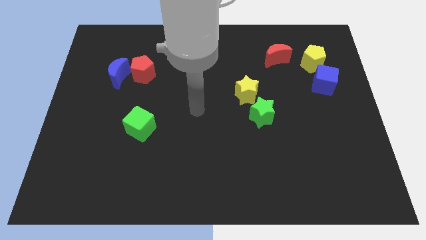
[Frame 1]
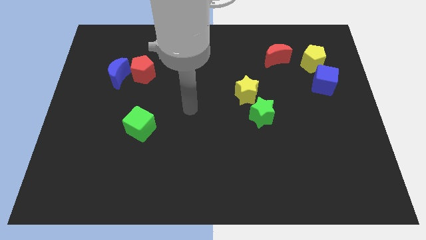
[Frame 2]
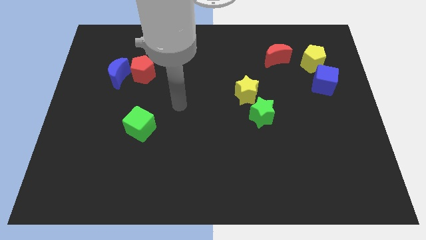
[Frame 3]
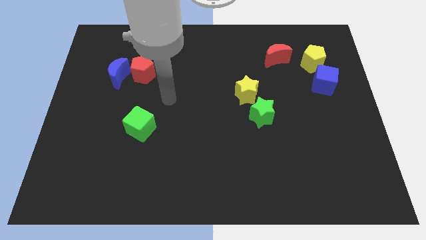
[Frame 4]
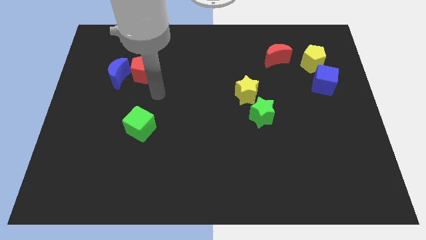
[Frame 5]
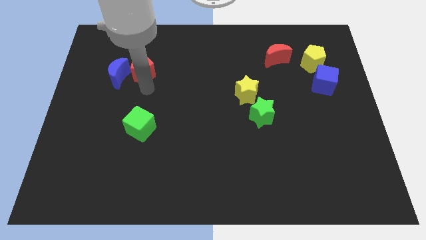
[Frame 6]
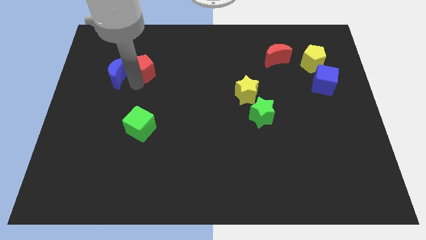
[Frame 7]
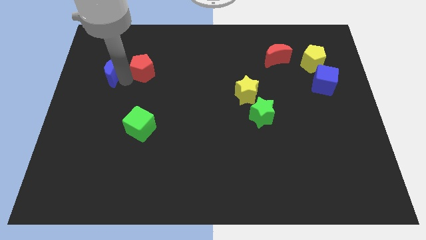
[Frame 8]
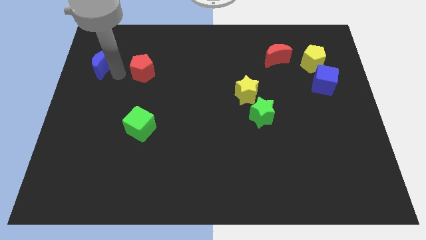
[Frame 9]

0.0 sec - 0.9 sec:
separate the red pentagon from the blue moon

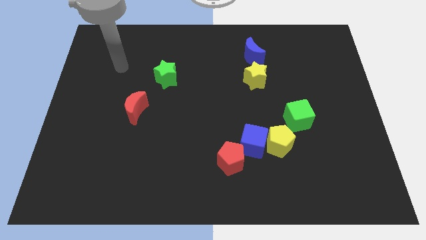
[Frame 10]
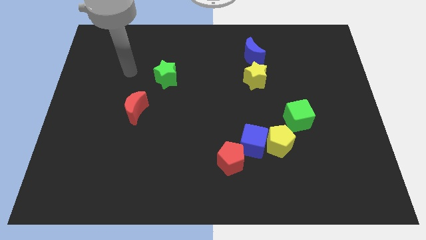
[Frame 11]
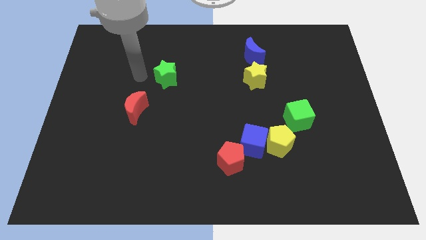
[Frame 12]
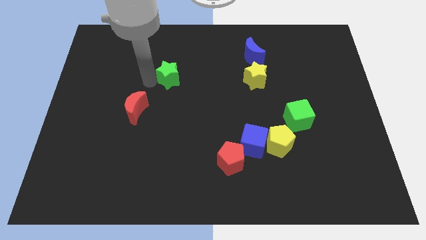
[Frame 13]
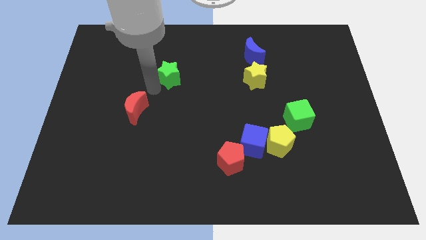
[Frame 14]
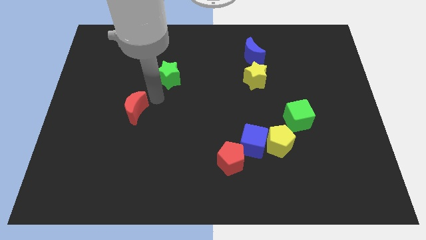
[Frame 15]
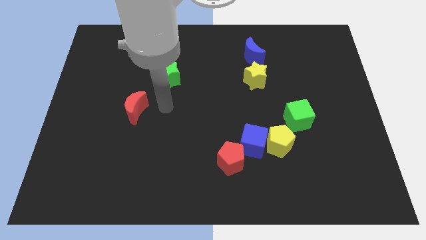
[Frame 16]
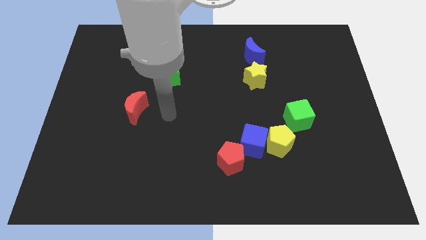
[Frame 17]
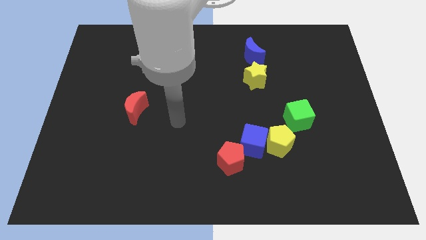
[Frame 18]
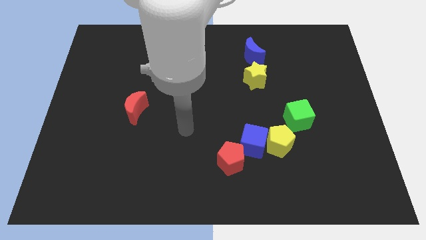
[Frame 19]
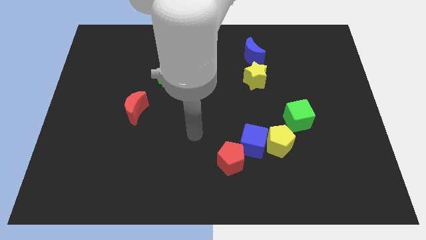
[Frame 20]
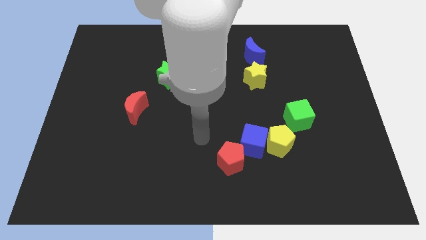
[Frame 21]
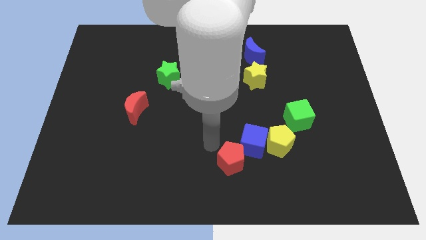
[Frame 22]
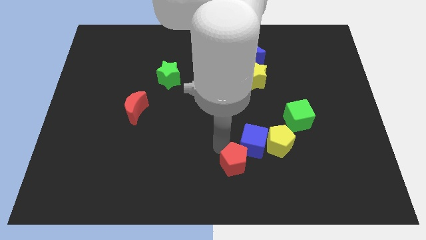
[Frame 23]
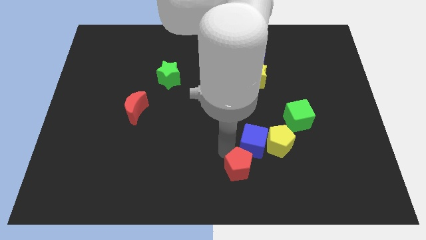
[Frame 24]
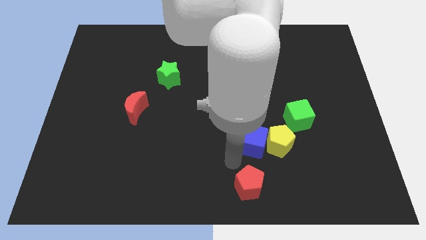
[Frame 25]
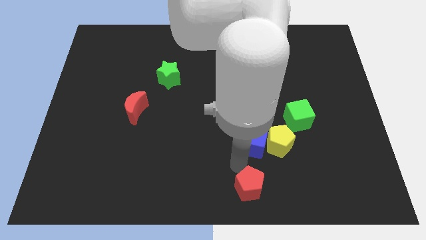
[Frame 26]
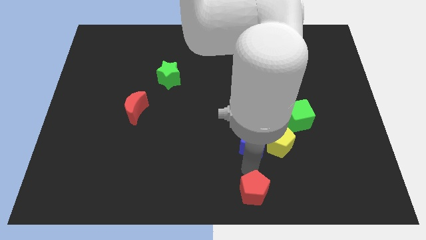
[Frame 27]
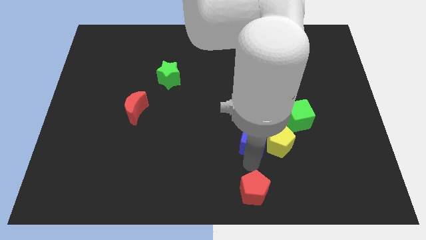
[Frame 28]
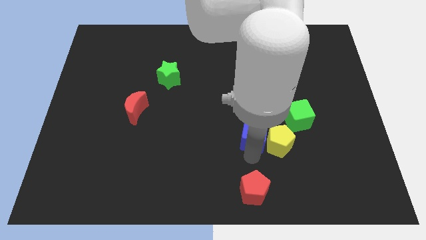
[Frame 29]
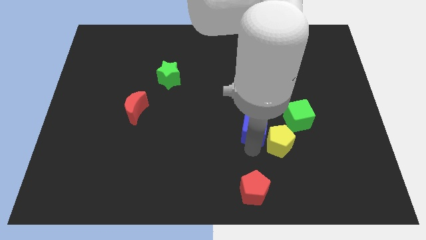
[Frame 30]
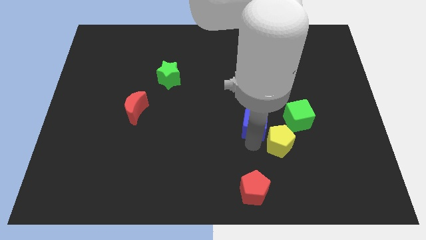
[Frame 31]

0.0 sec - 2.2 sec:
move the blue cube away from the yellow pentagon and red pentagon

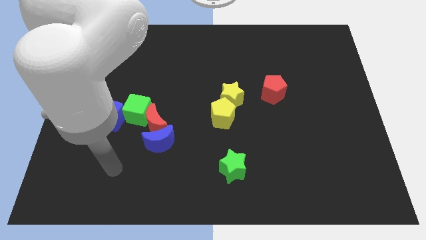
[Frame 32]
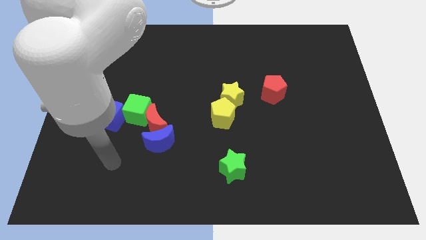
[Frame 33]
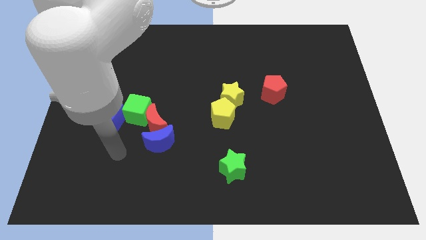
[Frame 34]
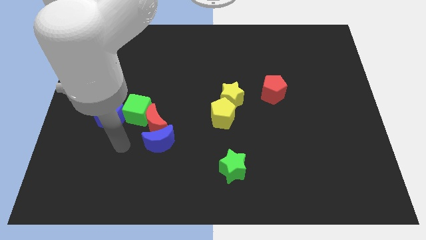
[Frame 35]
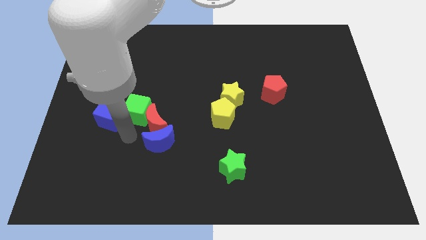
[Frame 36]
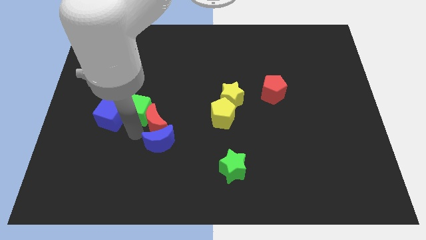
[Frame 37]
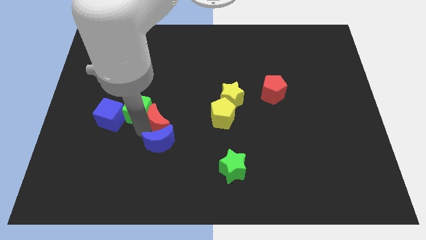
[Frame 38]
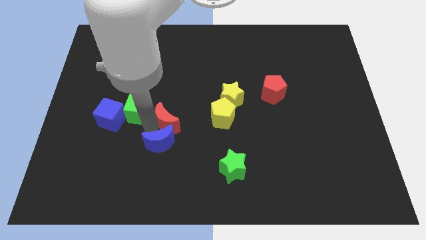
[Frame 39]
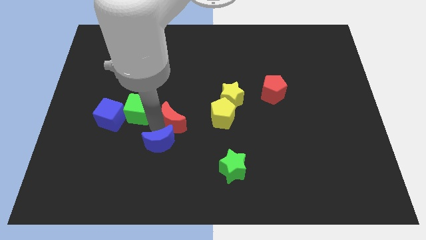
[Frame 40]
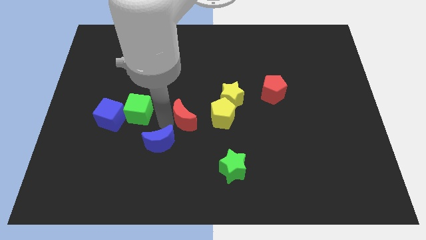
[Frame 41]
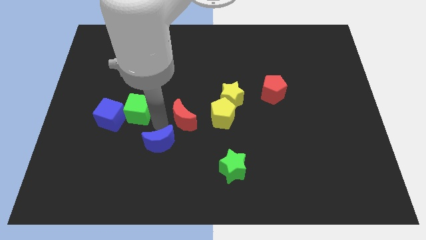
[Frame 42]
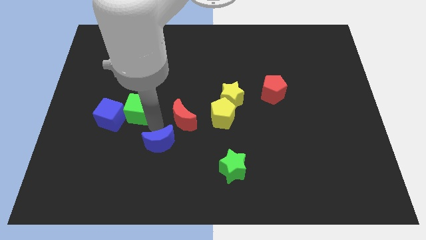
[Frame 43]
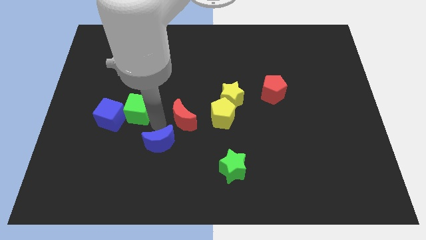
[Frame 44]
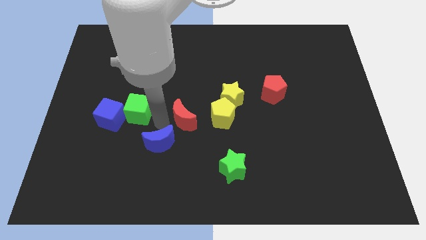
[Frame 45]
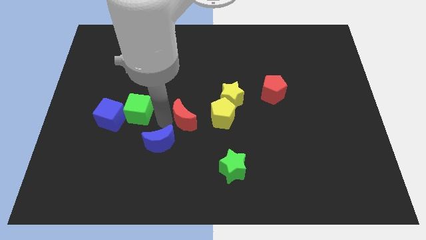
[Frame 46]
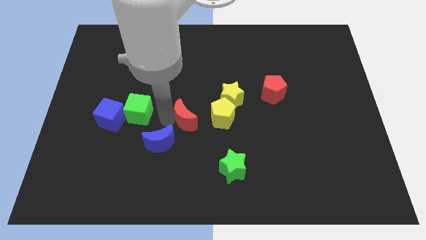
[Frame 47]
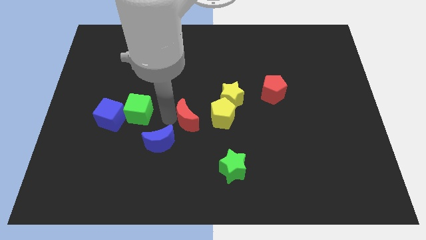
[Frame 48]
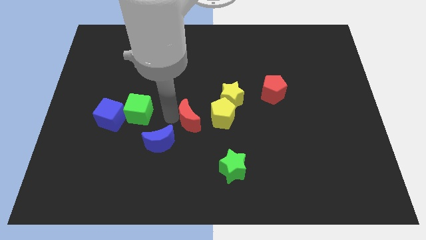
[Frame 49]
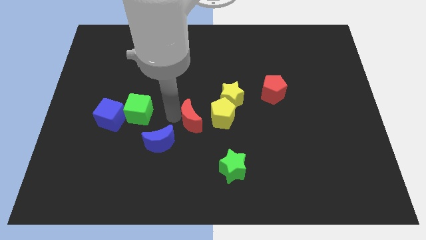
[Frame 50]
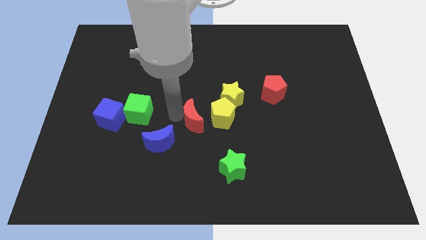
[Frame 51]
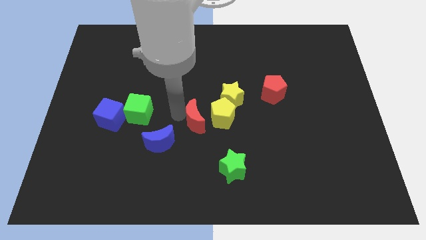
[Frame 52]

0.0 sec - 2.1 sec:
move the red moon away from the blue moon and green cube

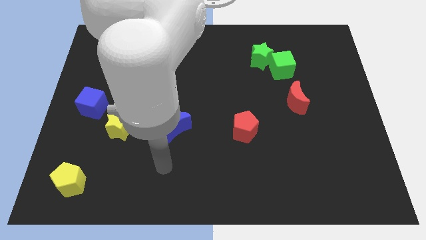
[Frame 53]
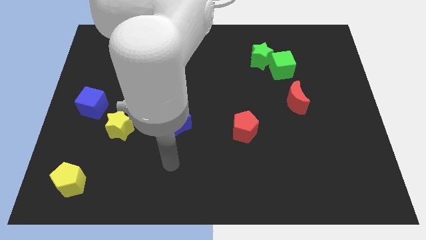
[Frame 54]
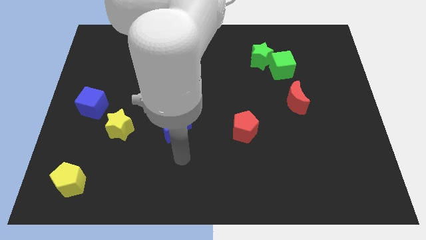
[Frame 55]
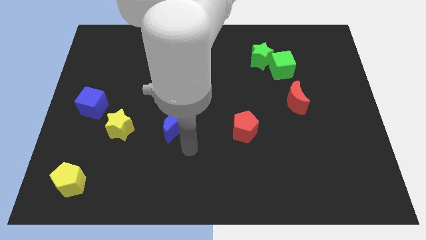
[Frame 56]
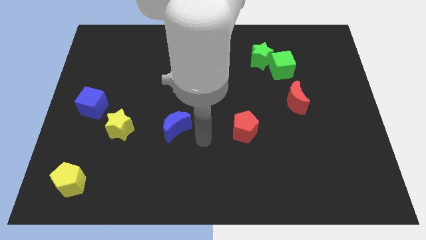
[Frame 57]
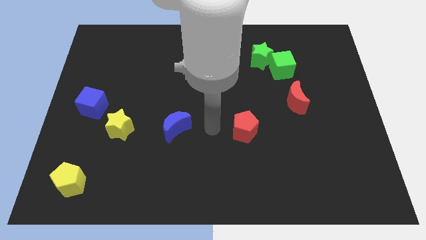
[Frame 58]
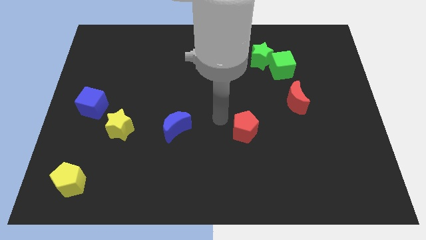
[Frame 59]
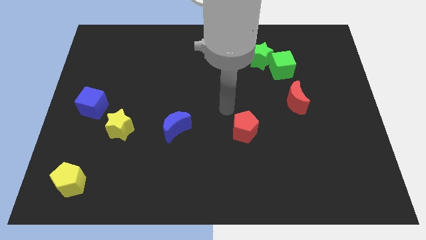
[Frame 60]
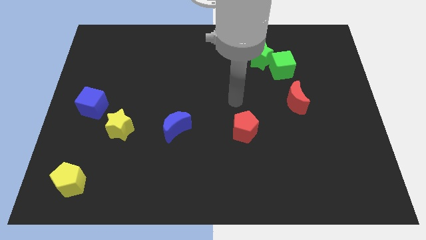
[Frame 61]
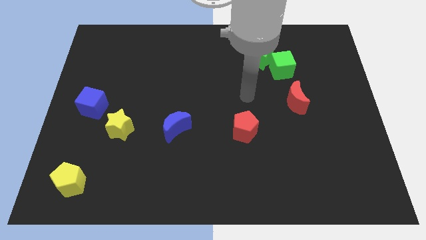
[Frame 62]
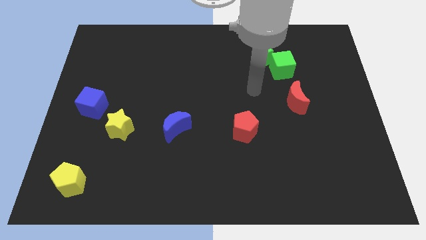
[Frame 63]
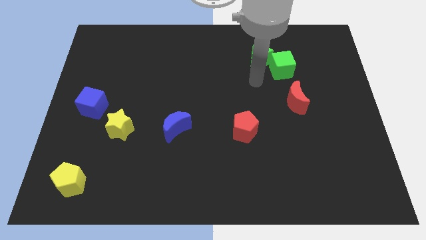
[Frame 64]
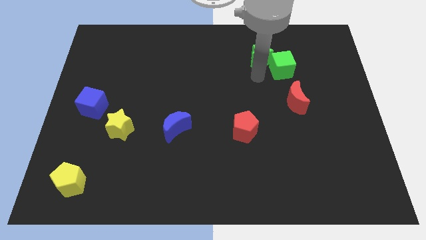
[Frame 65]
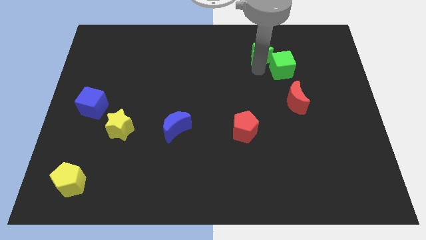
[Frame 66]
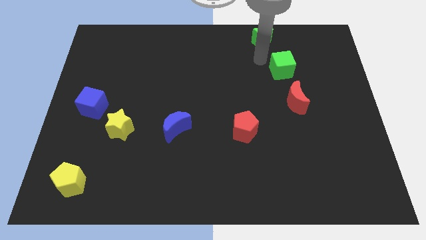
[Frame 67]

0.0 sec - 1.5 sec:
move the green cube away from the green star

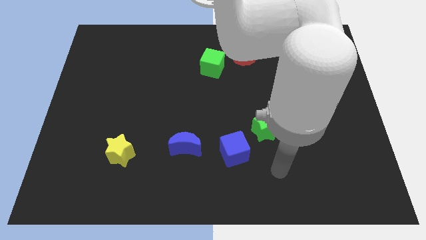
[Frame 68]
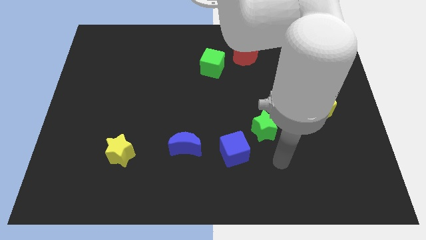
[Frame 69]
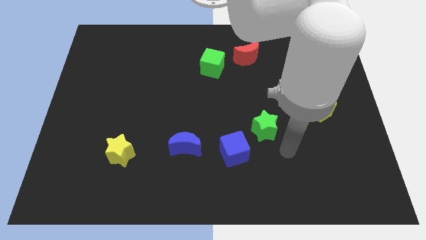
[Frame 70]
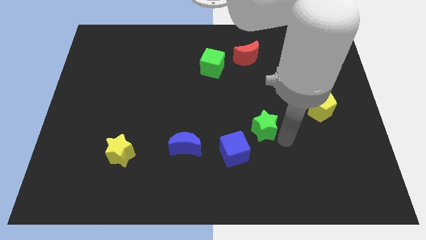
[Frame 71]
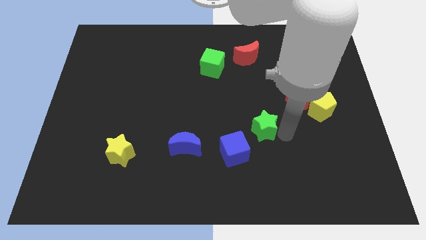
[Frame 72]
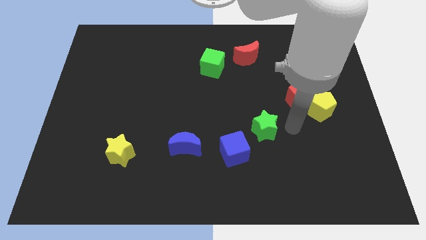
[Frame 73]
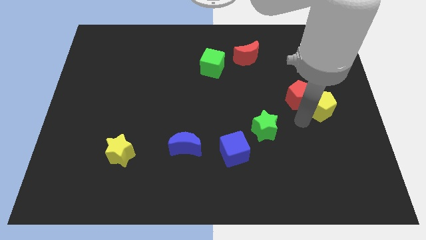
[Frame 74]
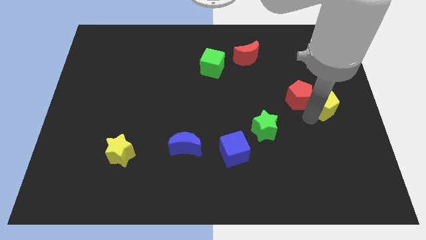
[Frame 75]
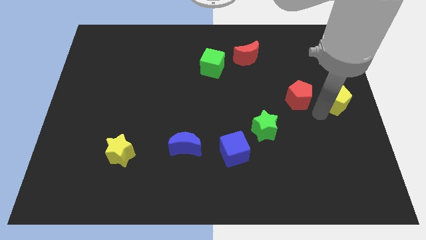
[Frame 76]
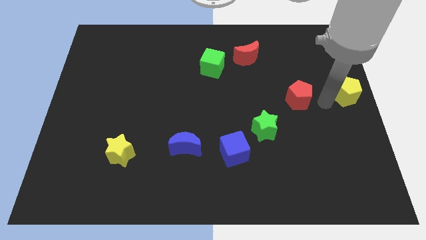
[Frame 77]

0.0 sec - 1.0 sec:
pull the red pentagon apart from the yellow pentagon

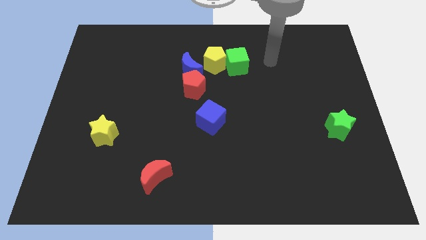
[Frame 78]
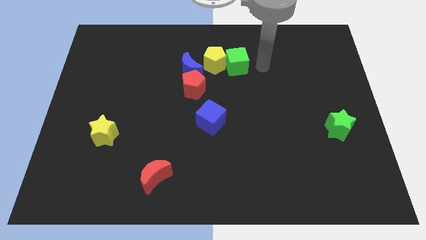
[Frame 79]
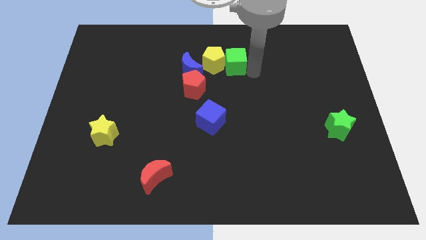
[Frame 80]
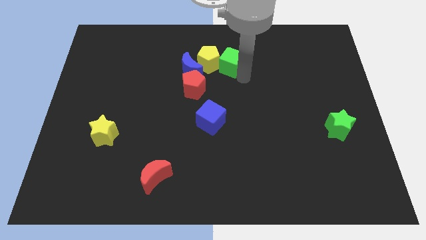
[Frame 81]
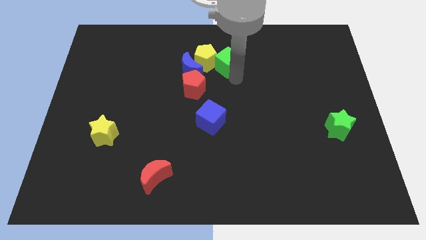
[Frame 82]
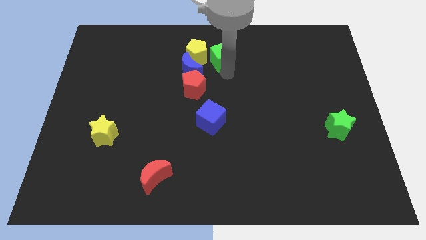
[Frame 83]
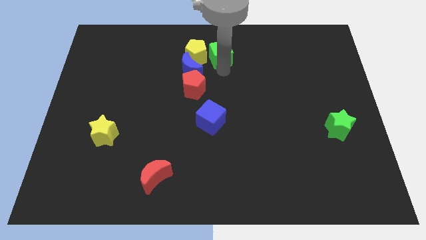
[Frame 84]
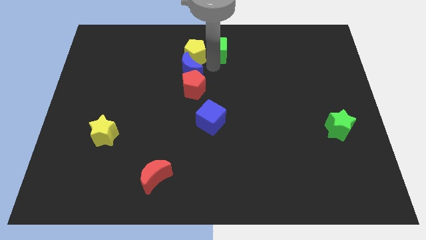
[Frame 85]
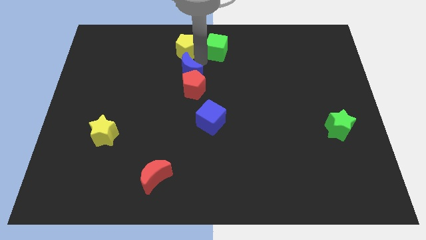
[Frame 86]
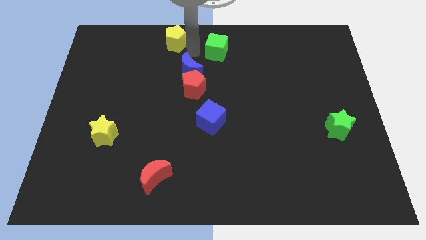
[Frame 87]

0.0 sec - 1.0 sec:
move the green cube away from the yellow pentagon

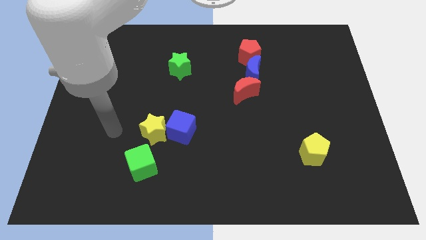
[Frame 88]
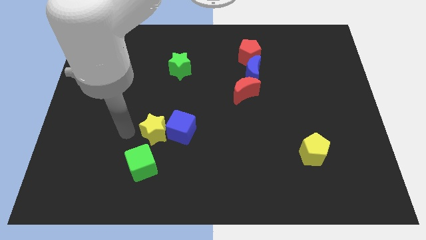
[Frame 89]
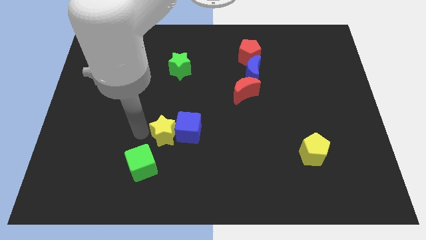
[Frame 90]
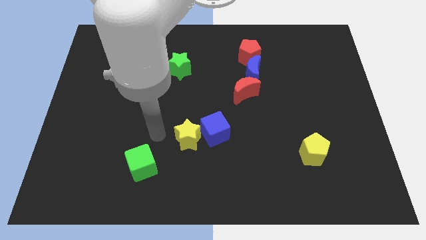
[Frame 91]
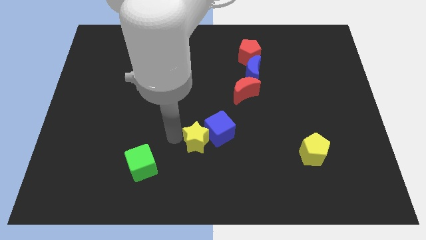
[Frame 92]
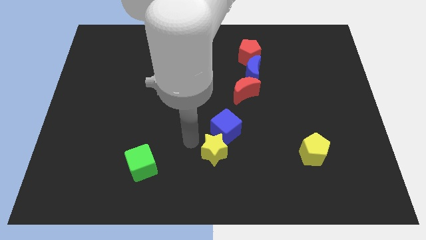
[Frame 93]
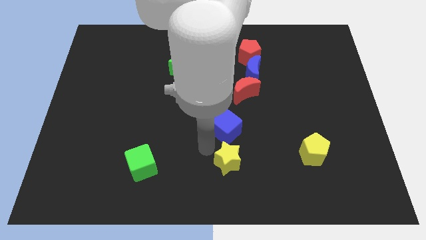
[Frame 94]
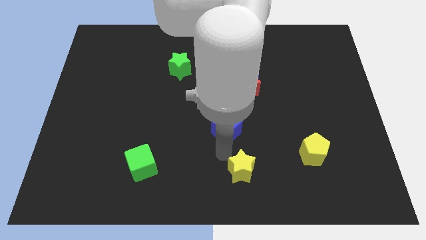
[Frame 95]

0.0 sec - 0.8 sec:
move the blue cube away from the yellow star
